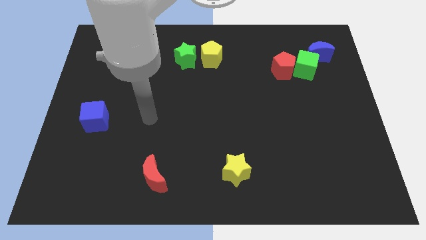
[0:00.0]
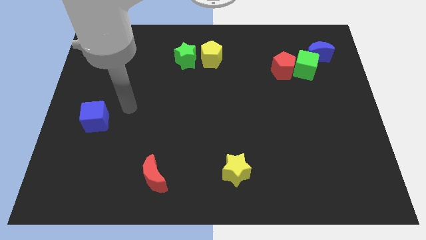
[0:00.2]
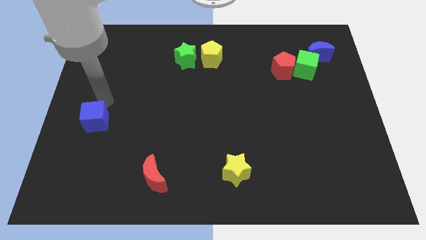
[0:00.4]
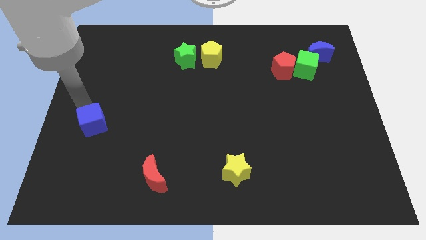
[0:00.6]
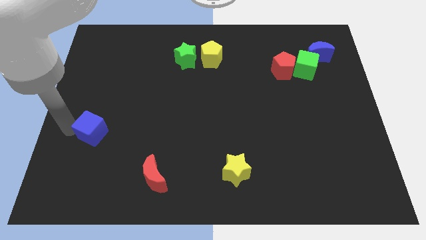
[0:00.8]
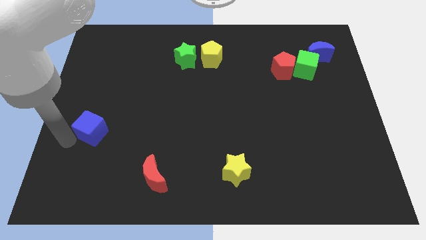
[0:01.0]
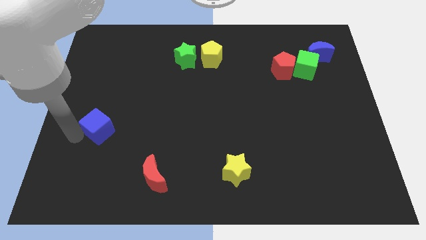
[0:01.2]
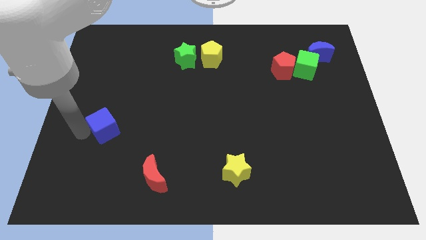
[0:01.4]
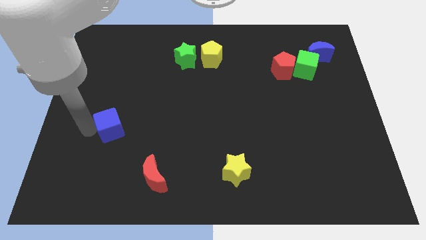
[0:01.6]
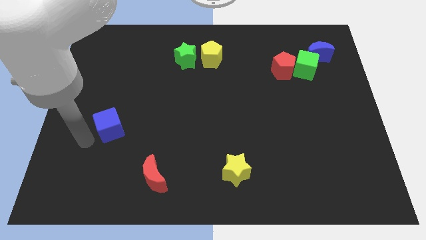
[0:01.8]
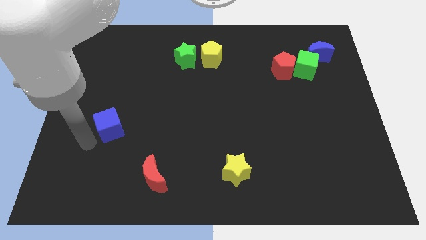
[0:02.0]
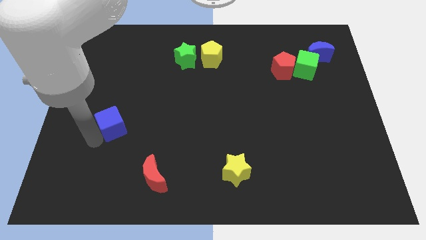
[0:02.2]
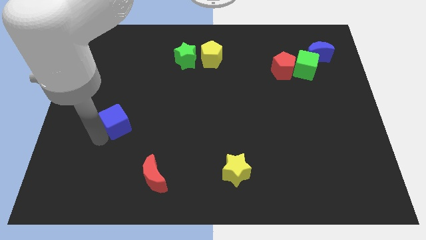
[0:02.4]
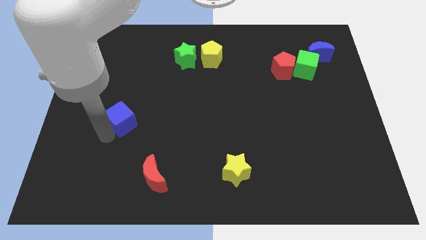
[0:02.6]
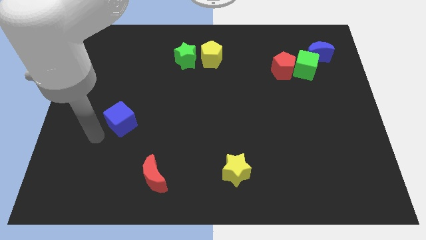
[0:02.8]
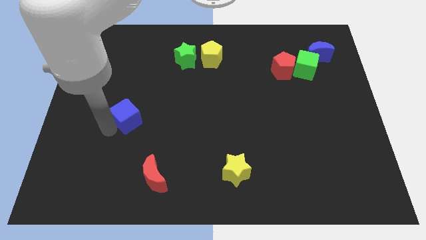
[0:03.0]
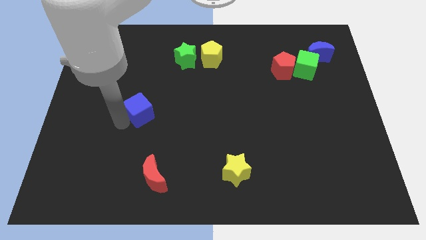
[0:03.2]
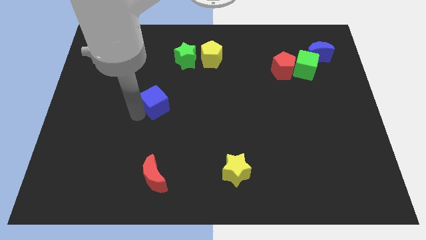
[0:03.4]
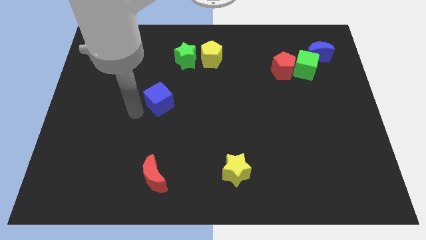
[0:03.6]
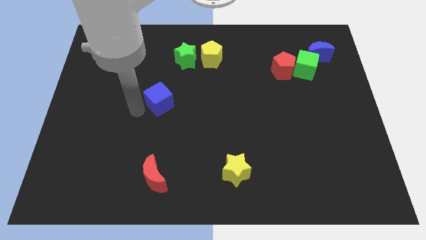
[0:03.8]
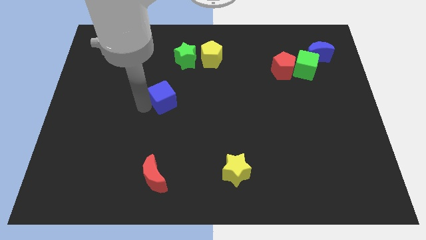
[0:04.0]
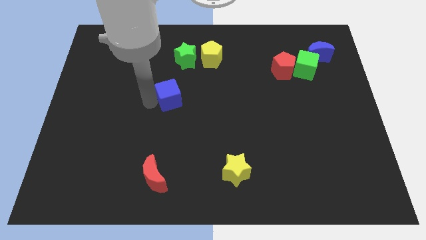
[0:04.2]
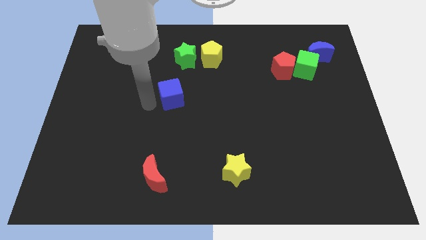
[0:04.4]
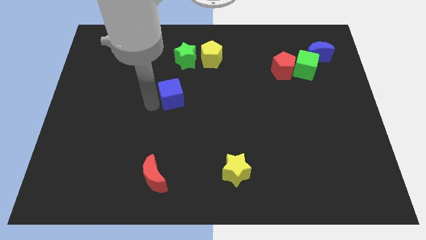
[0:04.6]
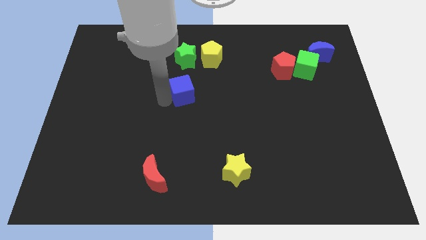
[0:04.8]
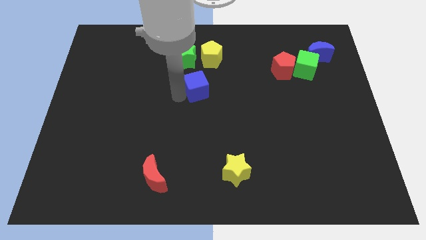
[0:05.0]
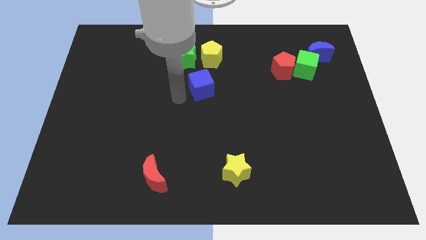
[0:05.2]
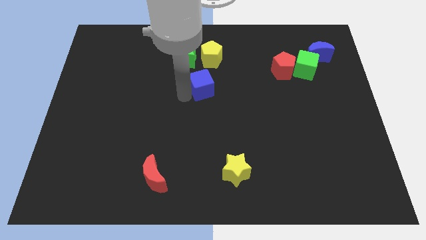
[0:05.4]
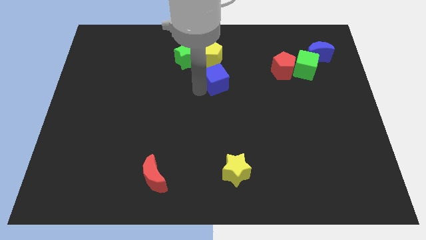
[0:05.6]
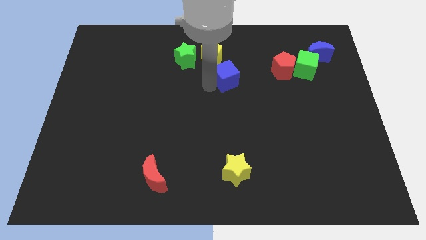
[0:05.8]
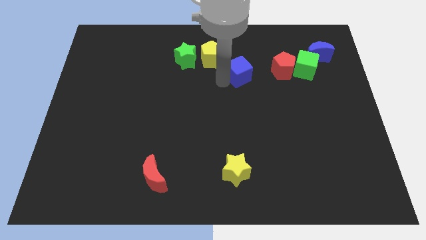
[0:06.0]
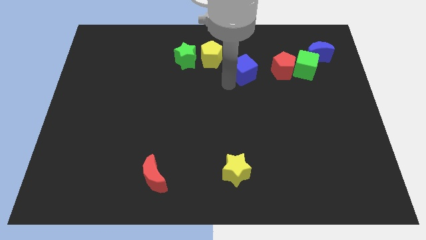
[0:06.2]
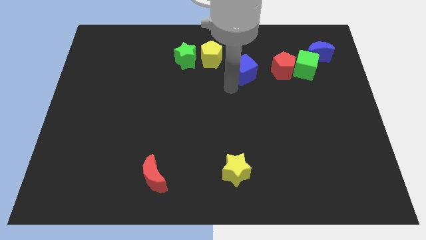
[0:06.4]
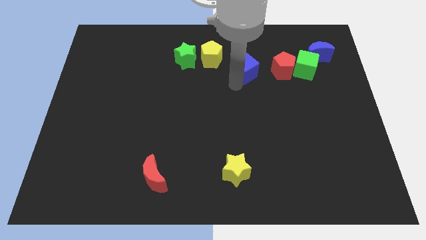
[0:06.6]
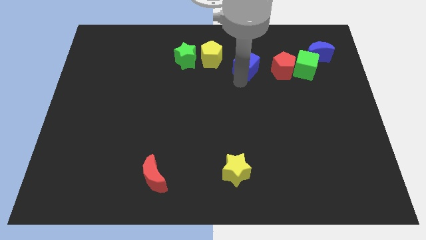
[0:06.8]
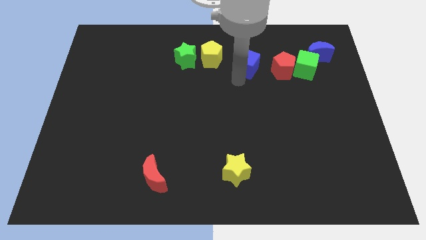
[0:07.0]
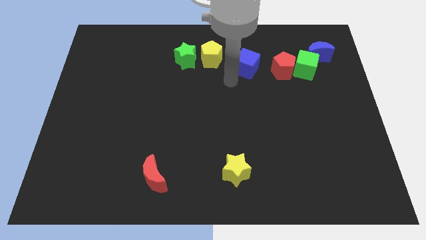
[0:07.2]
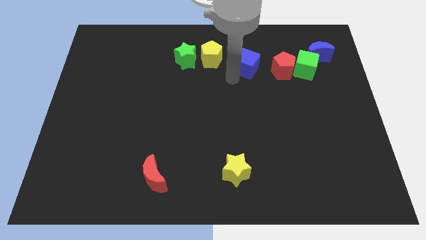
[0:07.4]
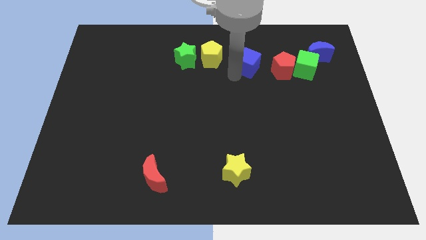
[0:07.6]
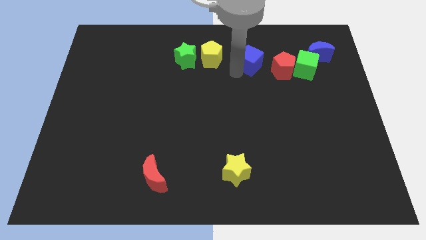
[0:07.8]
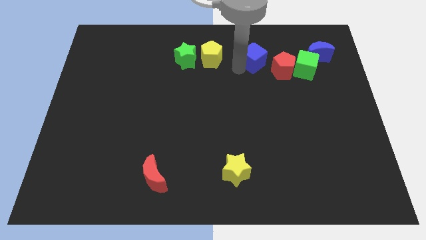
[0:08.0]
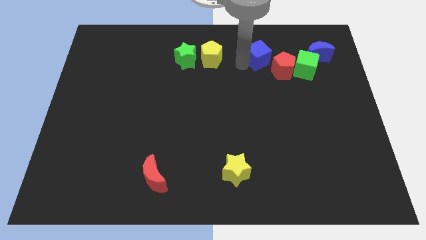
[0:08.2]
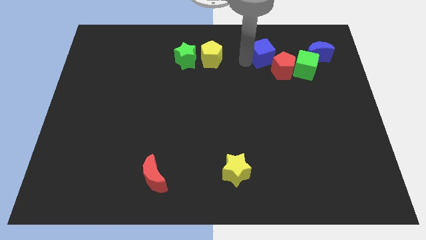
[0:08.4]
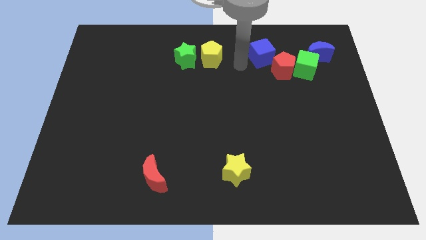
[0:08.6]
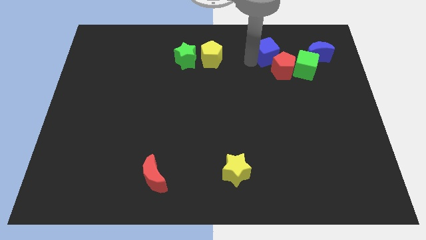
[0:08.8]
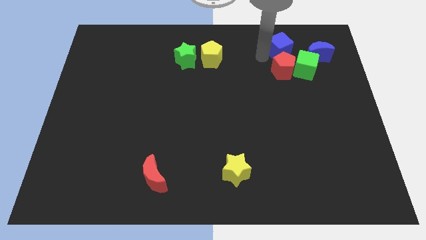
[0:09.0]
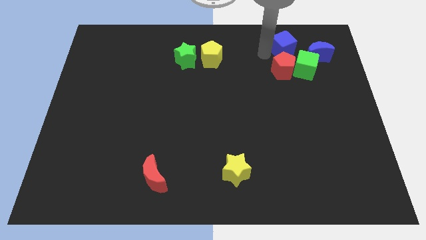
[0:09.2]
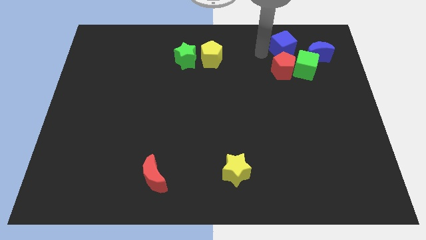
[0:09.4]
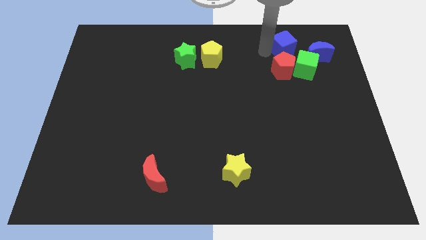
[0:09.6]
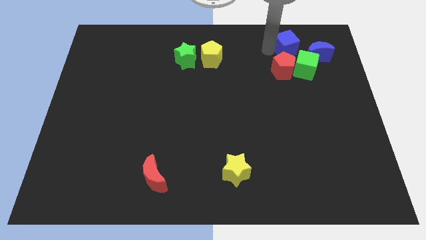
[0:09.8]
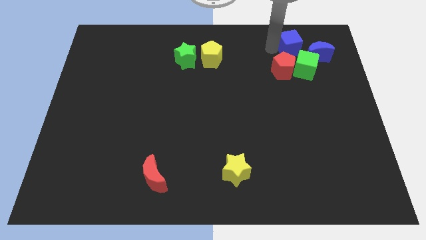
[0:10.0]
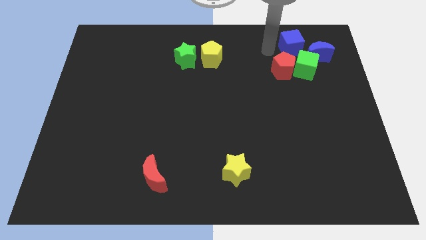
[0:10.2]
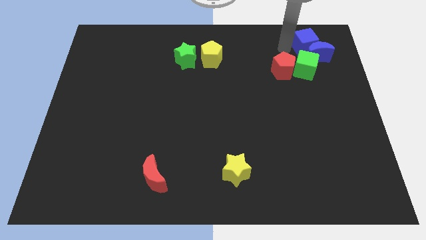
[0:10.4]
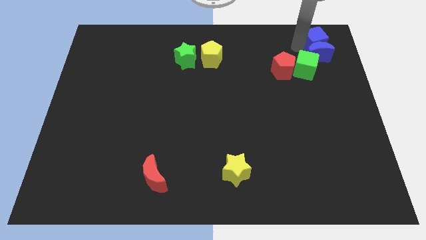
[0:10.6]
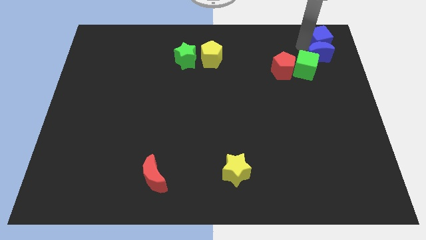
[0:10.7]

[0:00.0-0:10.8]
put the blue cube to the upper right corner

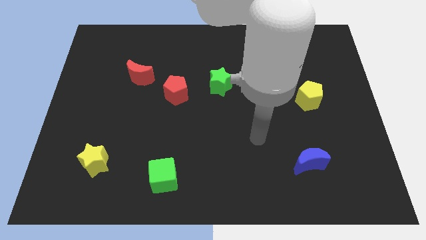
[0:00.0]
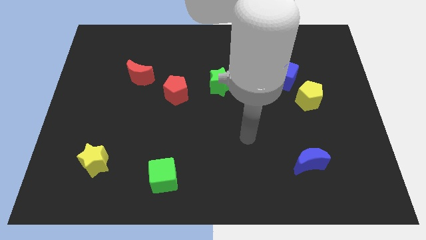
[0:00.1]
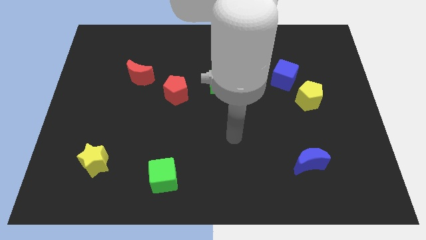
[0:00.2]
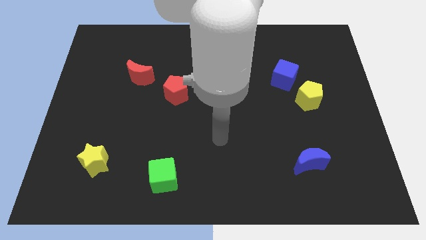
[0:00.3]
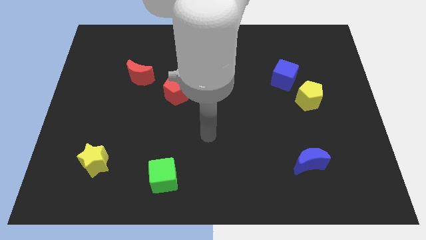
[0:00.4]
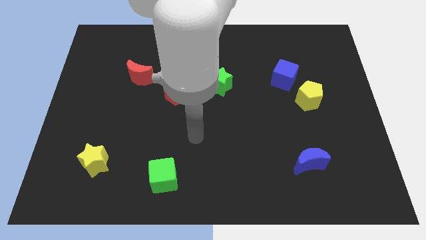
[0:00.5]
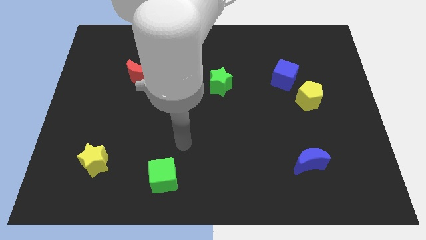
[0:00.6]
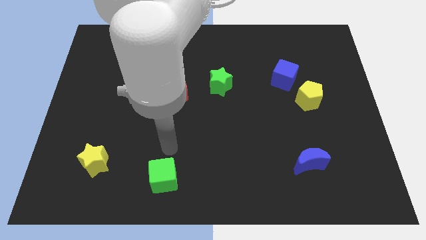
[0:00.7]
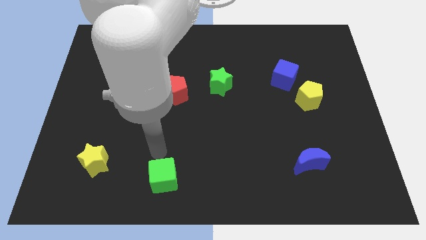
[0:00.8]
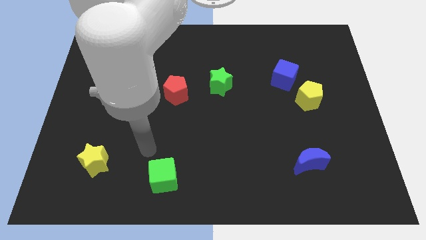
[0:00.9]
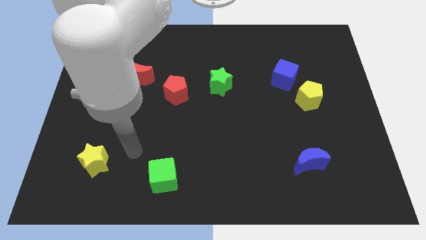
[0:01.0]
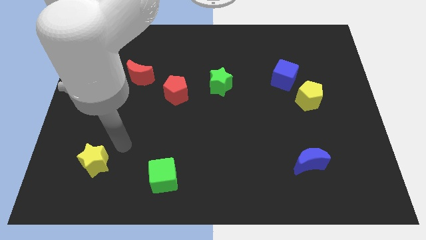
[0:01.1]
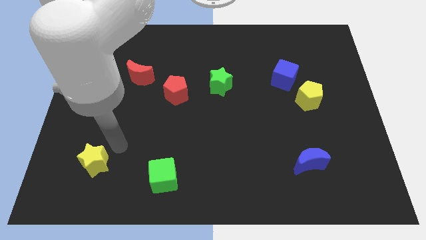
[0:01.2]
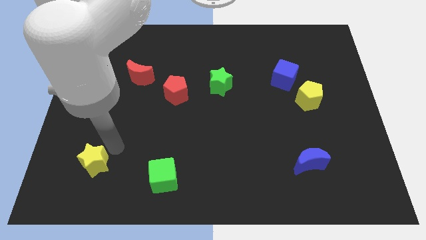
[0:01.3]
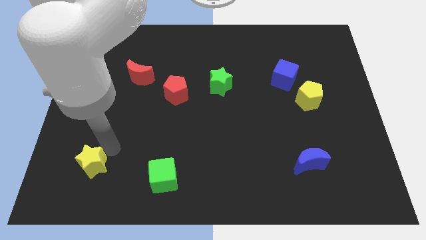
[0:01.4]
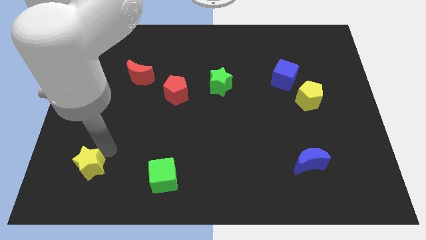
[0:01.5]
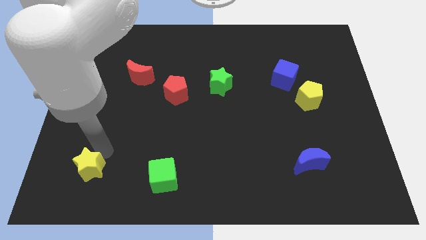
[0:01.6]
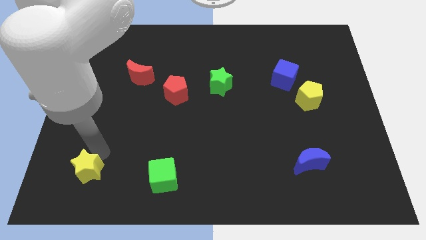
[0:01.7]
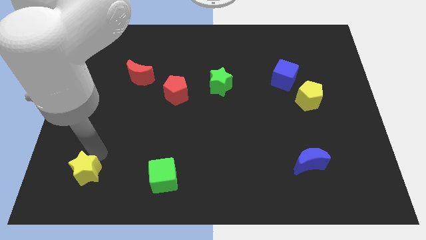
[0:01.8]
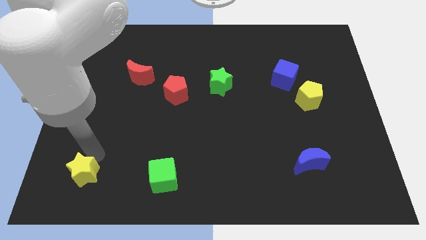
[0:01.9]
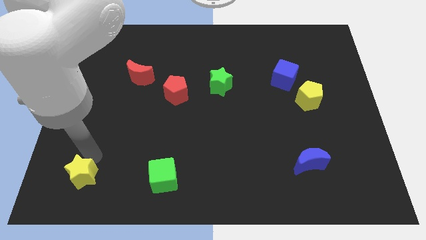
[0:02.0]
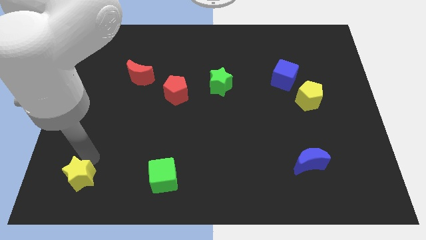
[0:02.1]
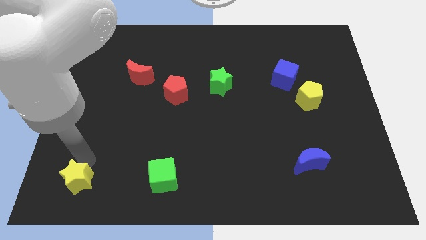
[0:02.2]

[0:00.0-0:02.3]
push the yellow star to the lower left corner
